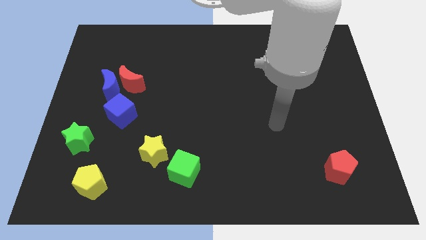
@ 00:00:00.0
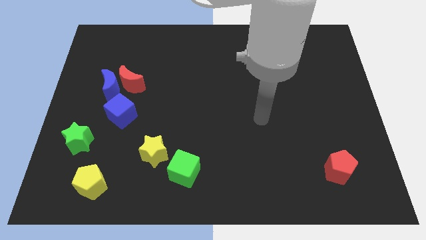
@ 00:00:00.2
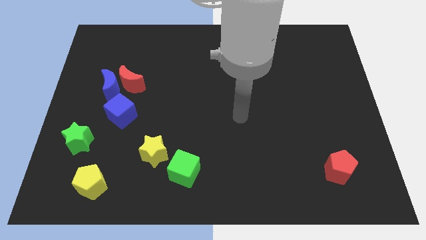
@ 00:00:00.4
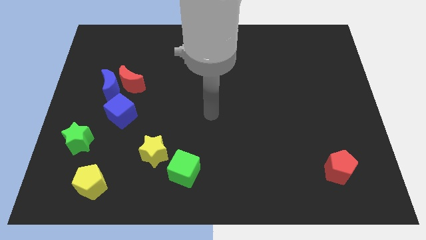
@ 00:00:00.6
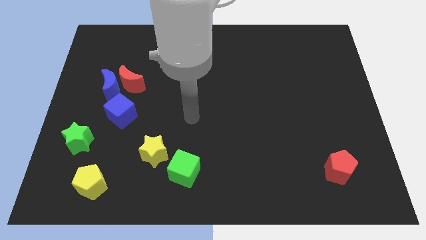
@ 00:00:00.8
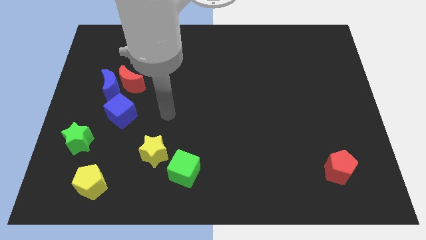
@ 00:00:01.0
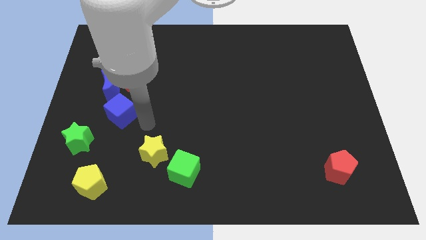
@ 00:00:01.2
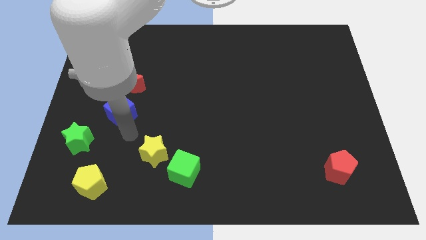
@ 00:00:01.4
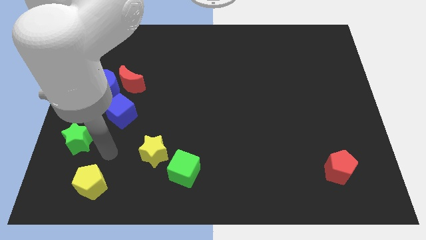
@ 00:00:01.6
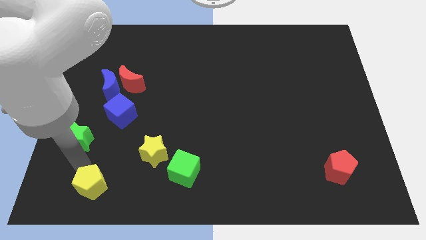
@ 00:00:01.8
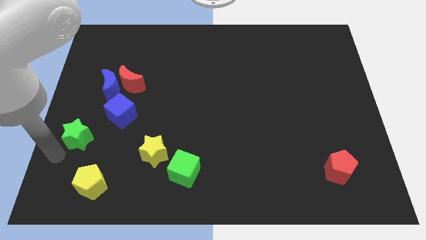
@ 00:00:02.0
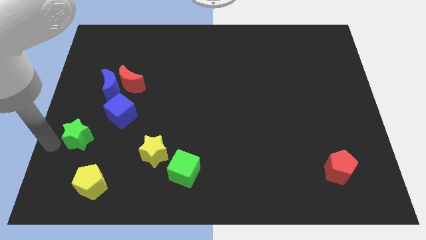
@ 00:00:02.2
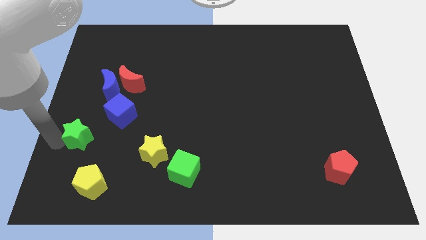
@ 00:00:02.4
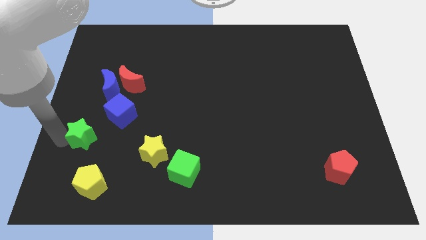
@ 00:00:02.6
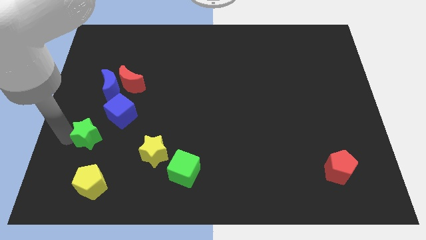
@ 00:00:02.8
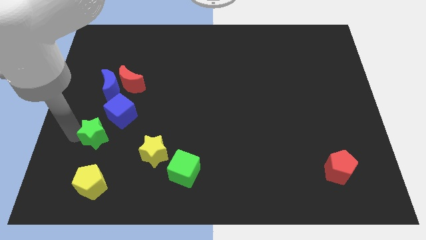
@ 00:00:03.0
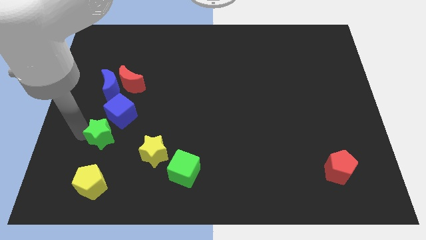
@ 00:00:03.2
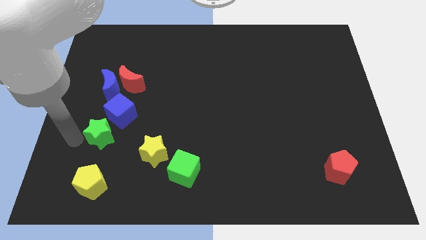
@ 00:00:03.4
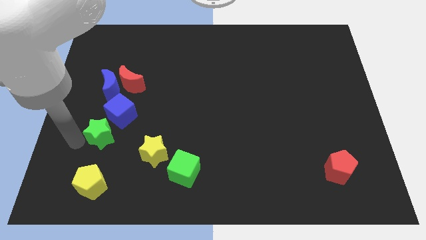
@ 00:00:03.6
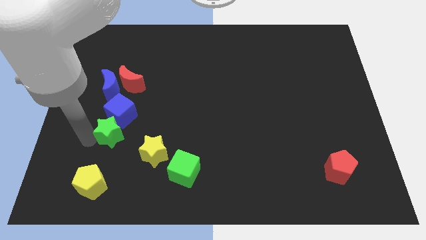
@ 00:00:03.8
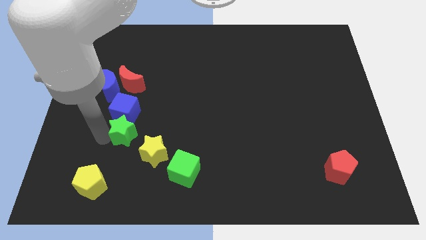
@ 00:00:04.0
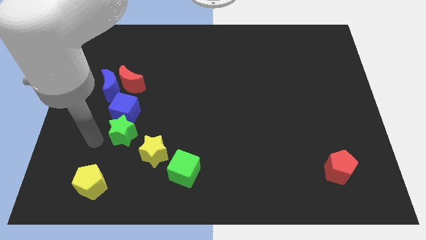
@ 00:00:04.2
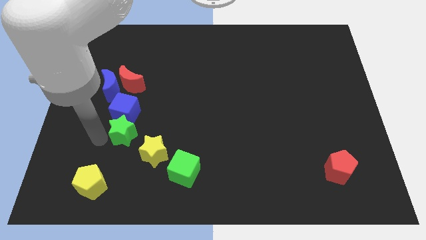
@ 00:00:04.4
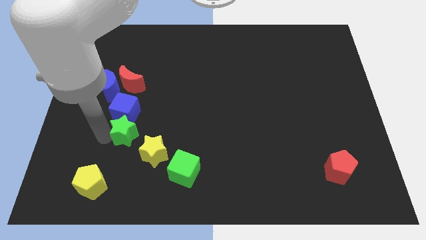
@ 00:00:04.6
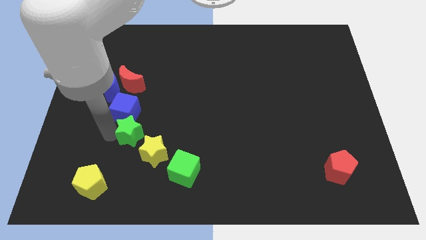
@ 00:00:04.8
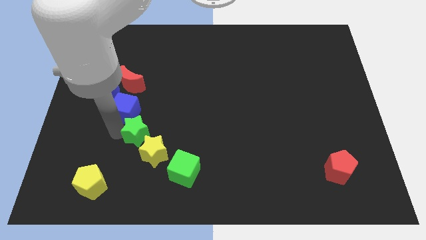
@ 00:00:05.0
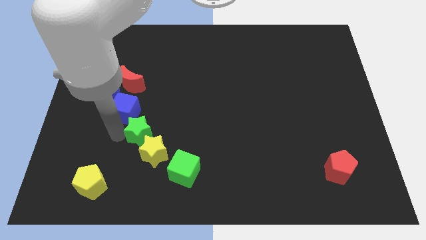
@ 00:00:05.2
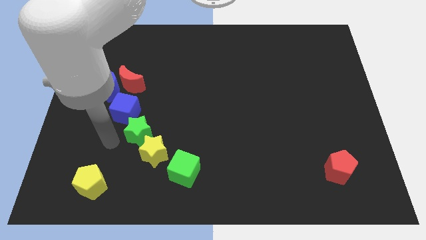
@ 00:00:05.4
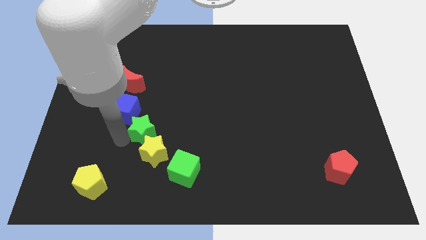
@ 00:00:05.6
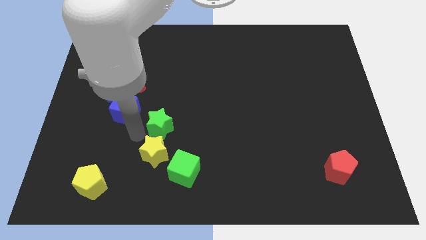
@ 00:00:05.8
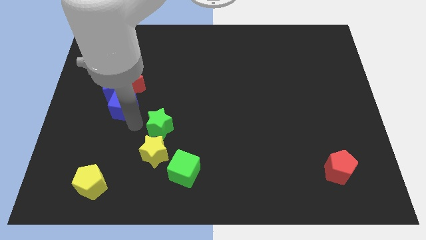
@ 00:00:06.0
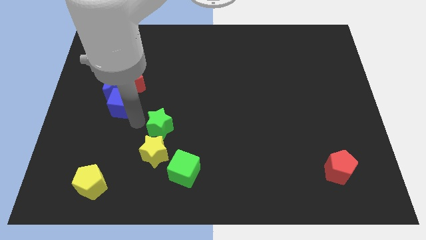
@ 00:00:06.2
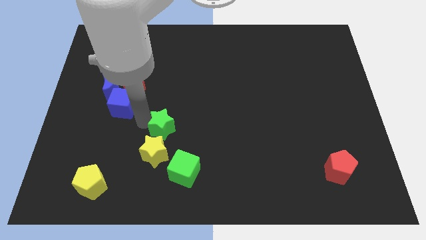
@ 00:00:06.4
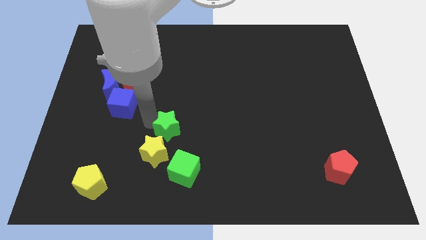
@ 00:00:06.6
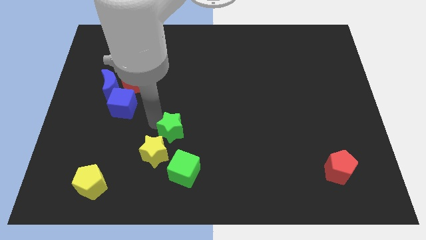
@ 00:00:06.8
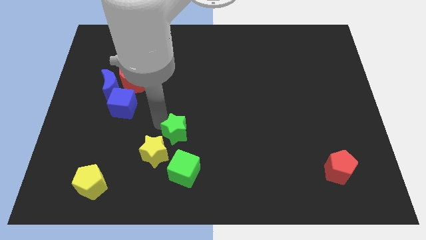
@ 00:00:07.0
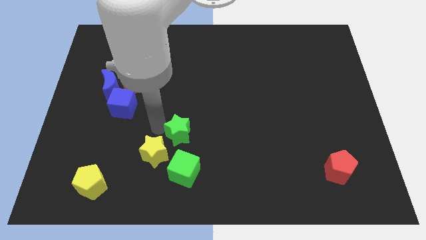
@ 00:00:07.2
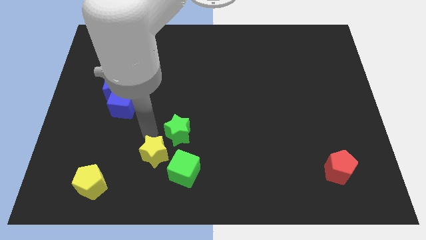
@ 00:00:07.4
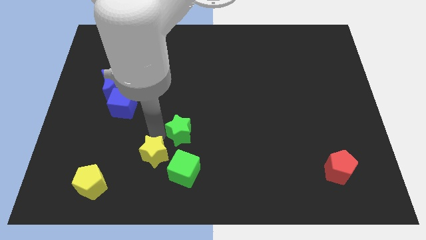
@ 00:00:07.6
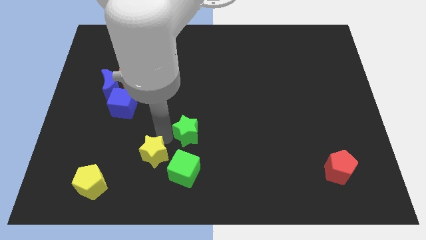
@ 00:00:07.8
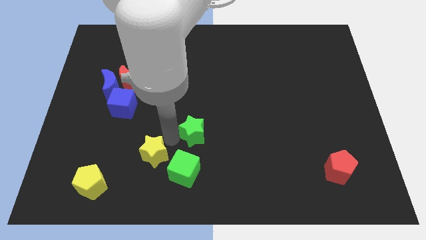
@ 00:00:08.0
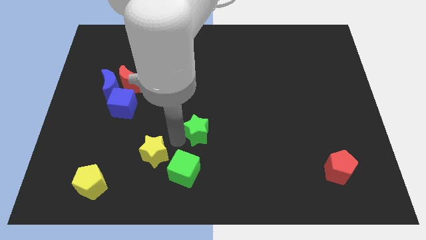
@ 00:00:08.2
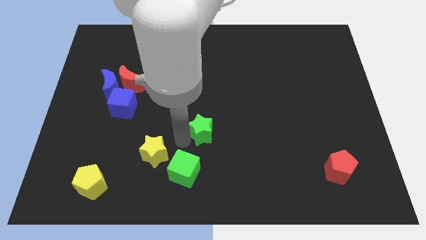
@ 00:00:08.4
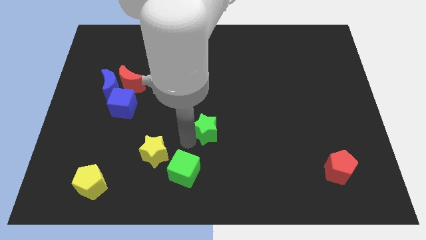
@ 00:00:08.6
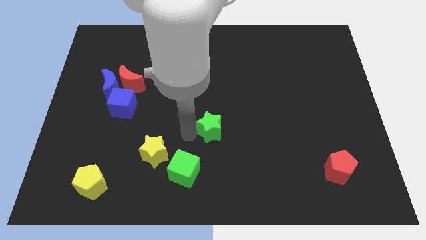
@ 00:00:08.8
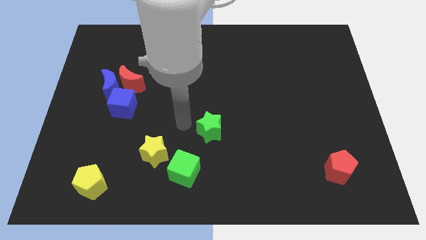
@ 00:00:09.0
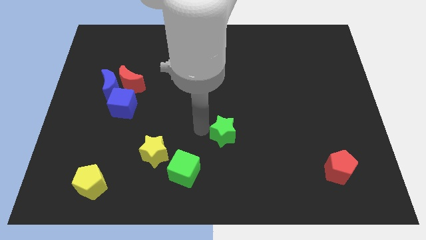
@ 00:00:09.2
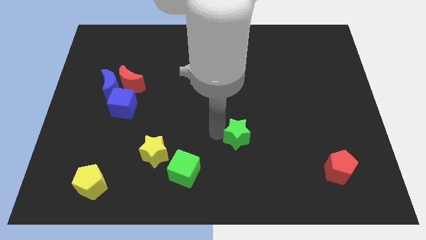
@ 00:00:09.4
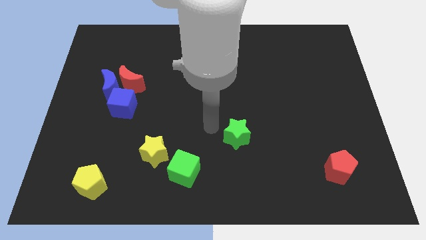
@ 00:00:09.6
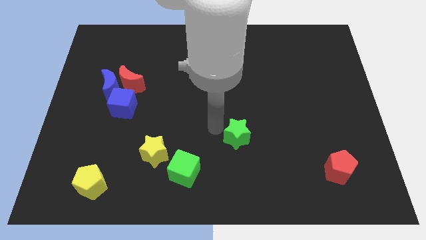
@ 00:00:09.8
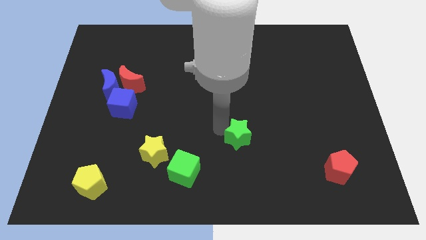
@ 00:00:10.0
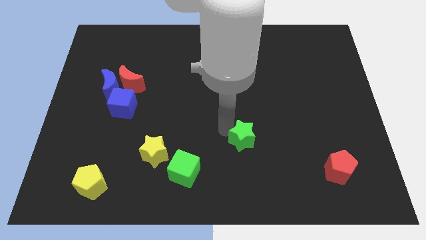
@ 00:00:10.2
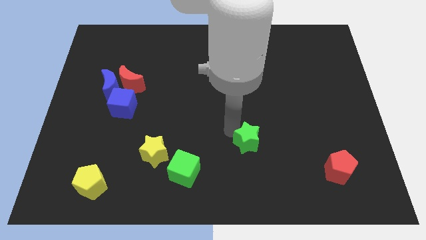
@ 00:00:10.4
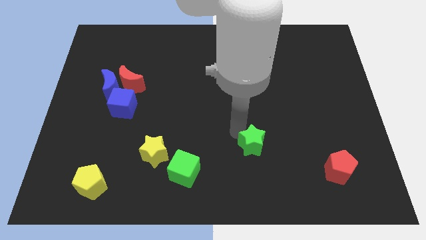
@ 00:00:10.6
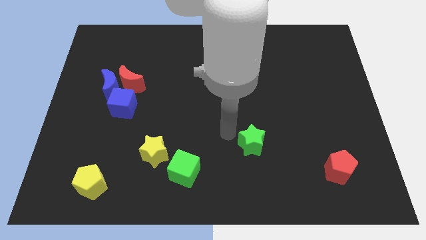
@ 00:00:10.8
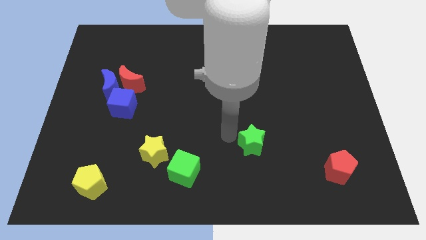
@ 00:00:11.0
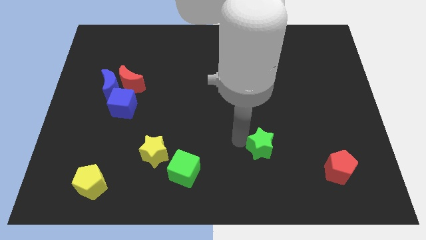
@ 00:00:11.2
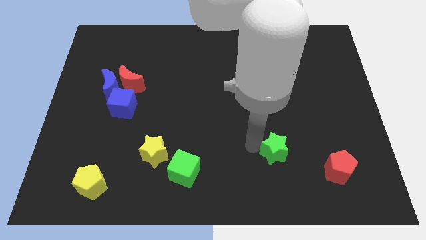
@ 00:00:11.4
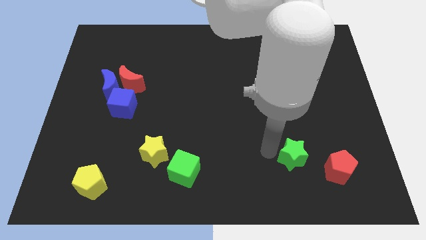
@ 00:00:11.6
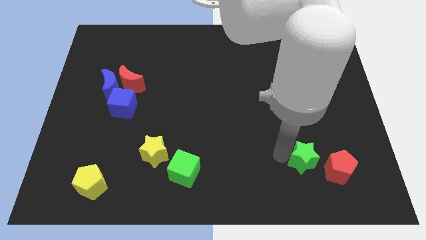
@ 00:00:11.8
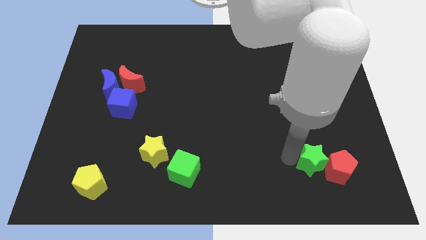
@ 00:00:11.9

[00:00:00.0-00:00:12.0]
slide the green star to the red pentagon
